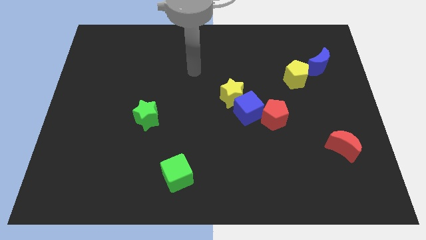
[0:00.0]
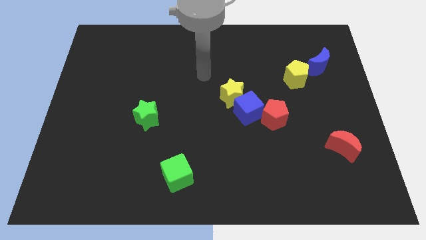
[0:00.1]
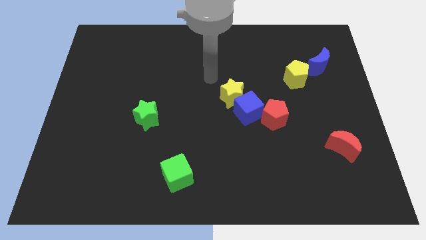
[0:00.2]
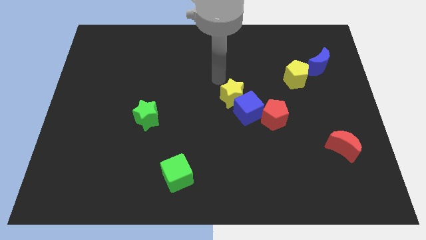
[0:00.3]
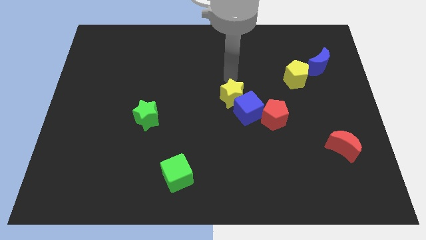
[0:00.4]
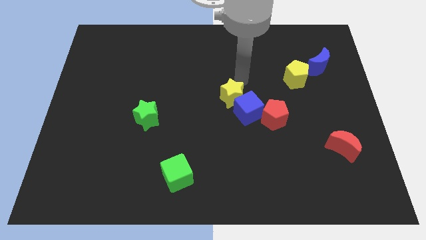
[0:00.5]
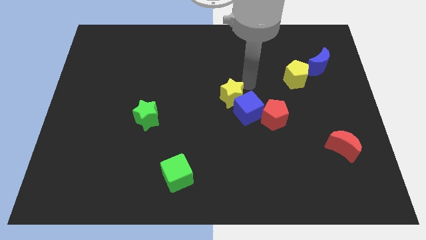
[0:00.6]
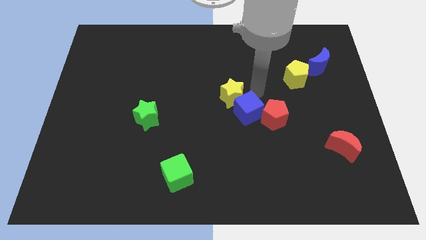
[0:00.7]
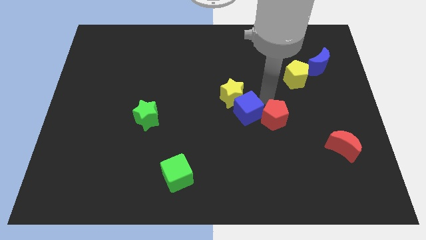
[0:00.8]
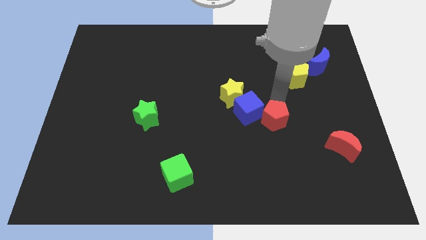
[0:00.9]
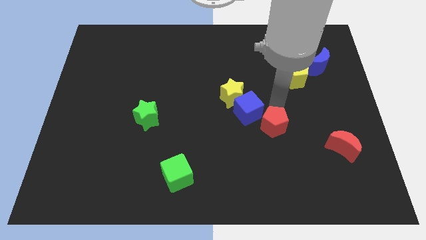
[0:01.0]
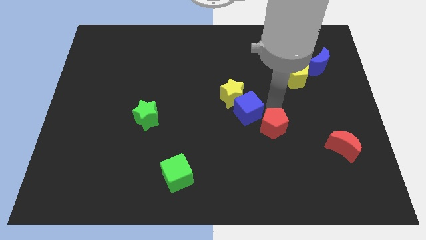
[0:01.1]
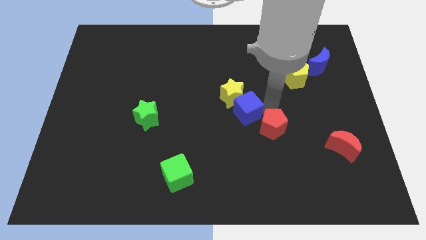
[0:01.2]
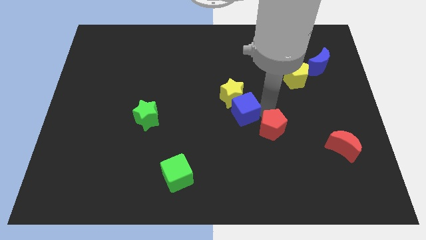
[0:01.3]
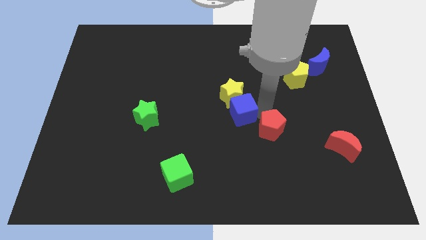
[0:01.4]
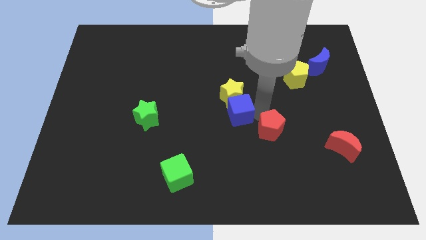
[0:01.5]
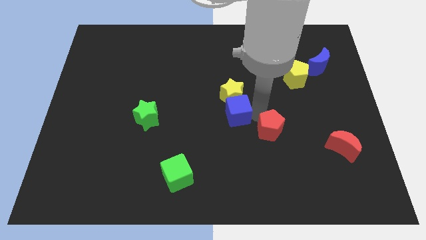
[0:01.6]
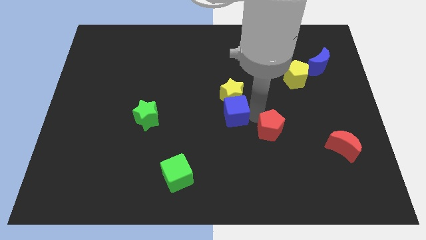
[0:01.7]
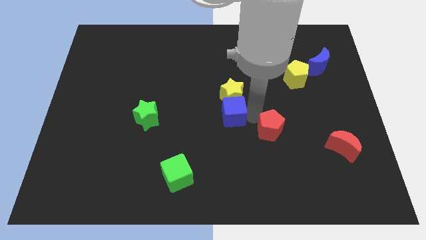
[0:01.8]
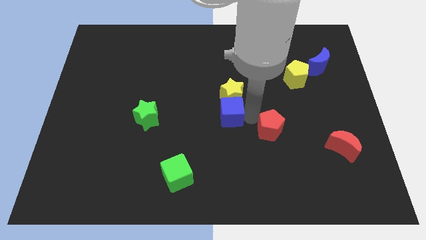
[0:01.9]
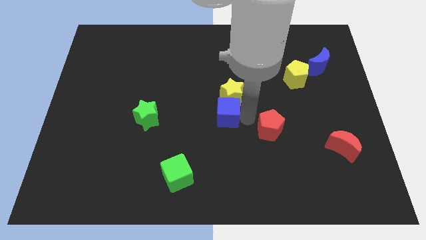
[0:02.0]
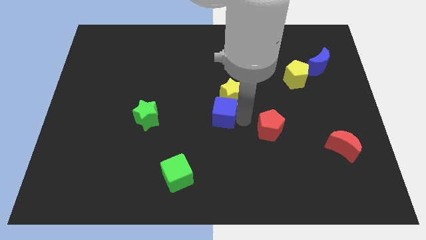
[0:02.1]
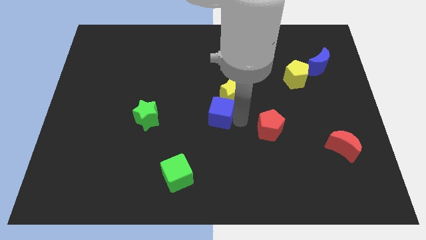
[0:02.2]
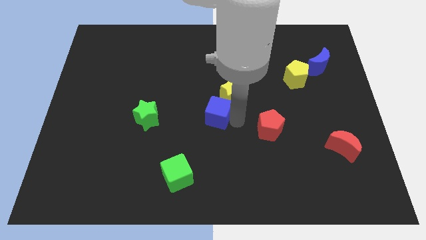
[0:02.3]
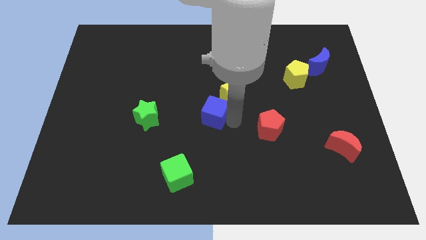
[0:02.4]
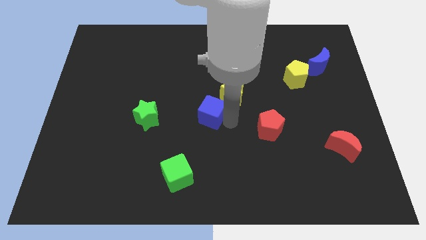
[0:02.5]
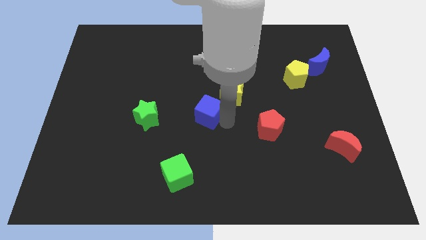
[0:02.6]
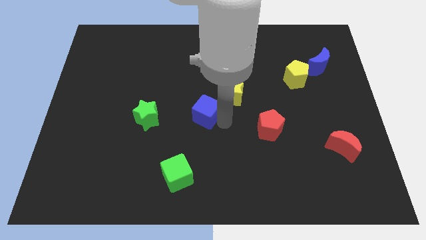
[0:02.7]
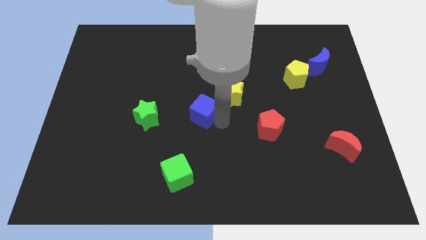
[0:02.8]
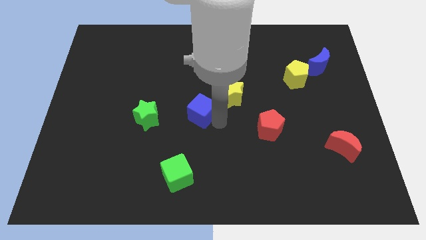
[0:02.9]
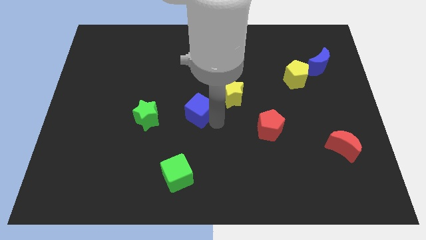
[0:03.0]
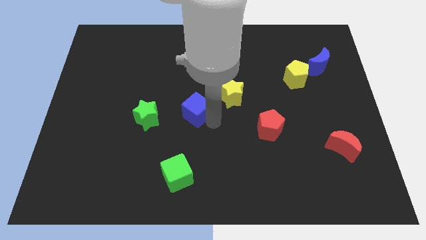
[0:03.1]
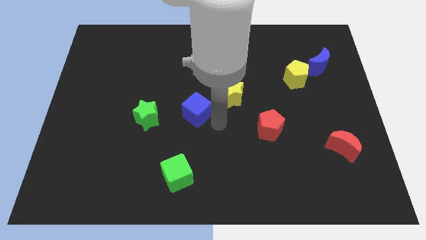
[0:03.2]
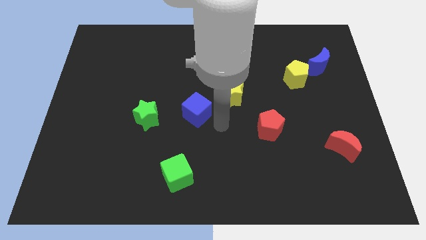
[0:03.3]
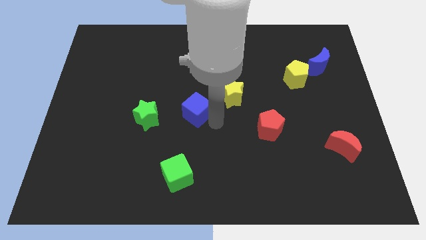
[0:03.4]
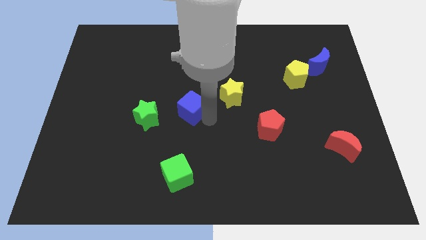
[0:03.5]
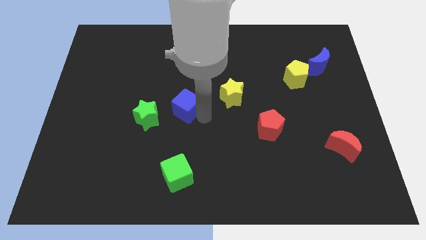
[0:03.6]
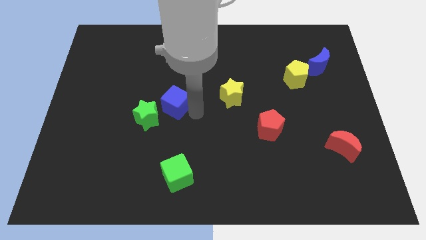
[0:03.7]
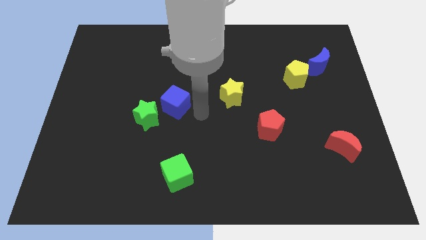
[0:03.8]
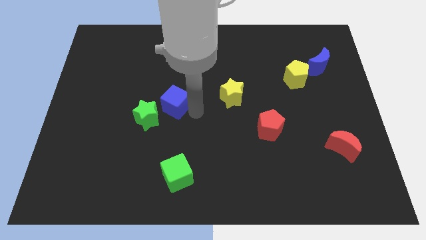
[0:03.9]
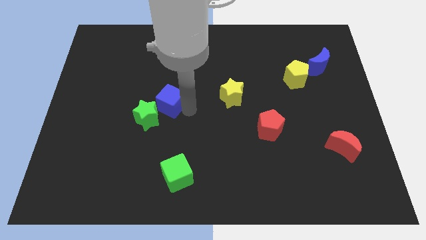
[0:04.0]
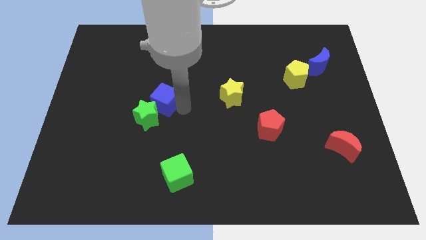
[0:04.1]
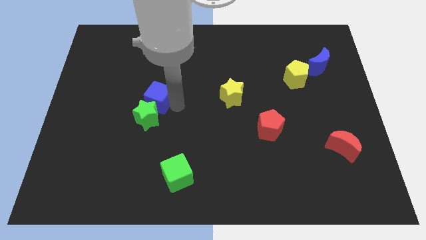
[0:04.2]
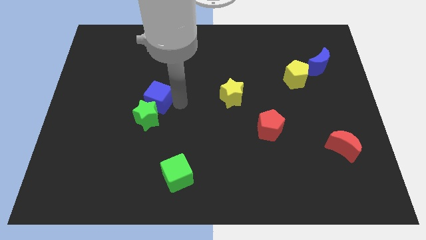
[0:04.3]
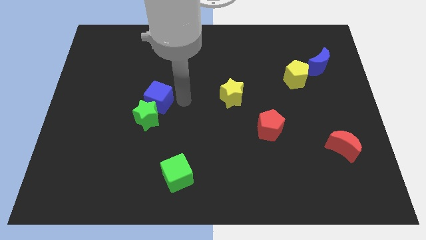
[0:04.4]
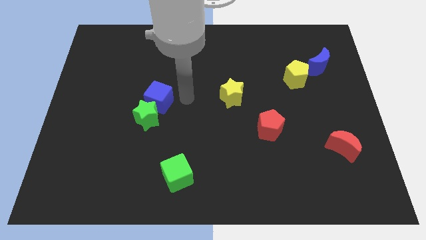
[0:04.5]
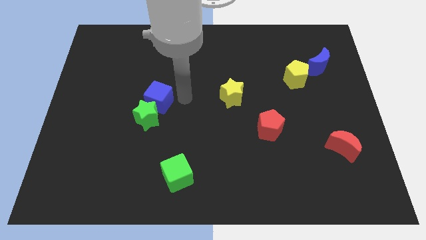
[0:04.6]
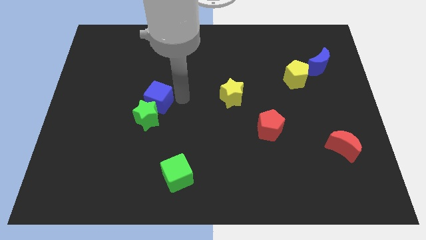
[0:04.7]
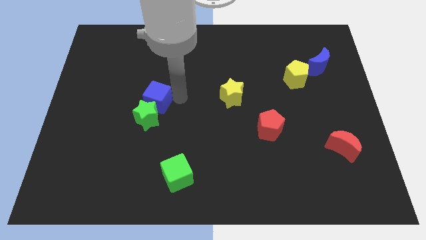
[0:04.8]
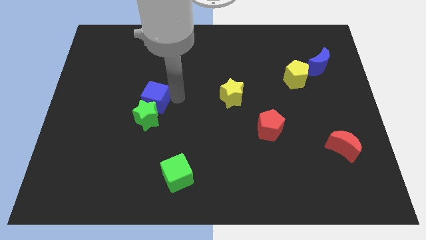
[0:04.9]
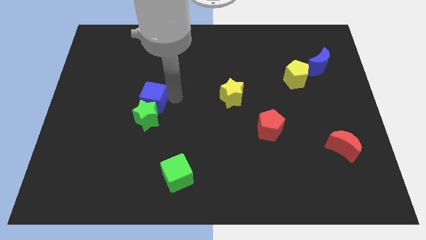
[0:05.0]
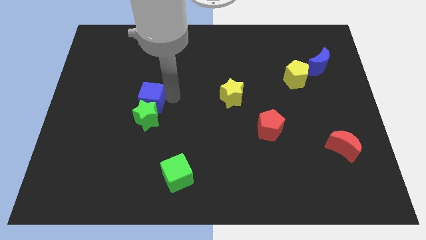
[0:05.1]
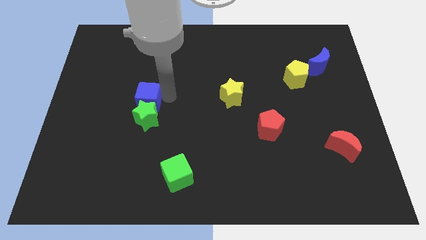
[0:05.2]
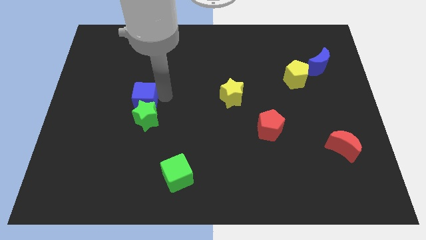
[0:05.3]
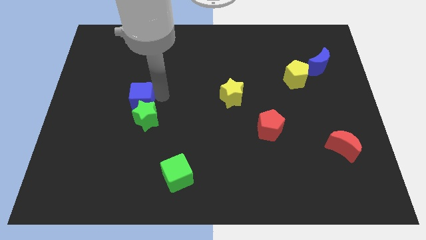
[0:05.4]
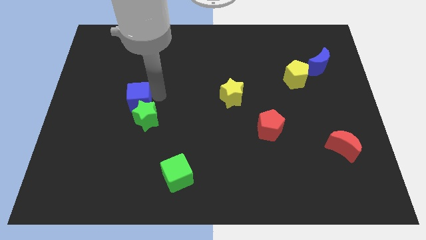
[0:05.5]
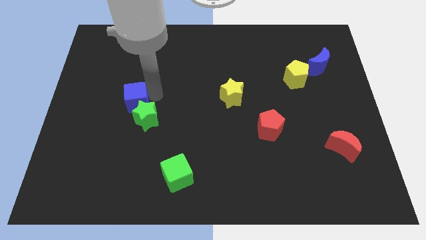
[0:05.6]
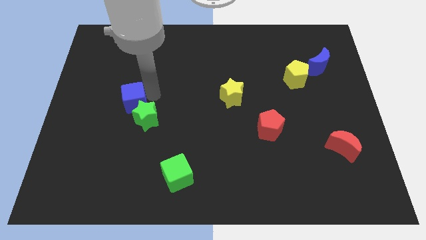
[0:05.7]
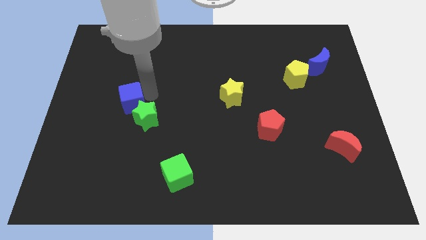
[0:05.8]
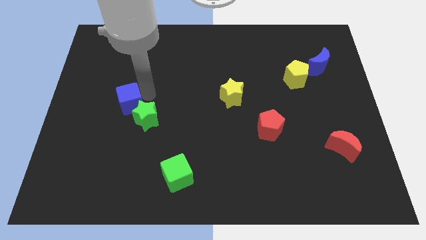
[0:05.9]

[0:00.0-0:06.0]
put the blue cube to the left of the green star

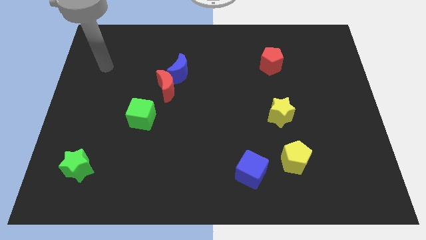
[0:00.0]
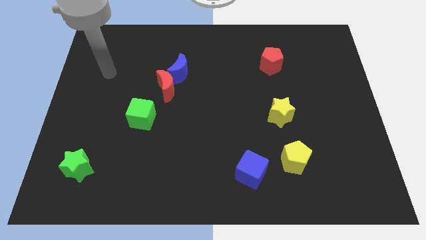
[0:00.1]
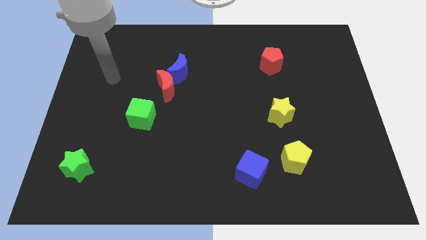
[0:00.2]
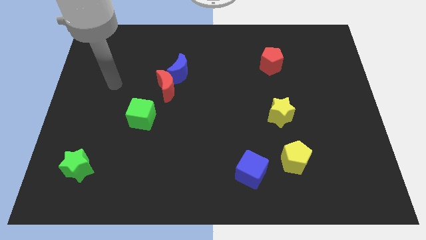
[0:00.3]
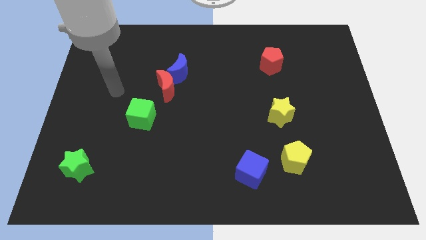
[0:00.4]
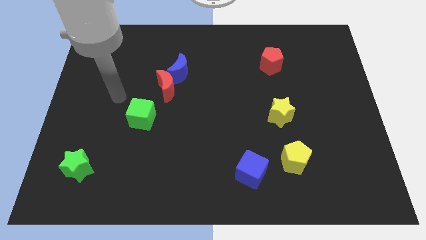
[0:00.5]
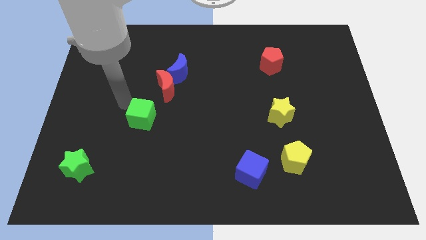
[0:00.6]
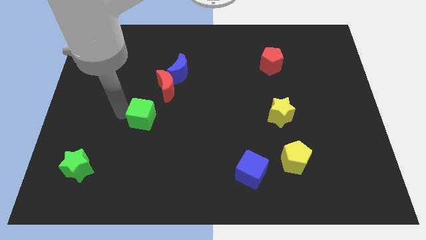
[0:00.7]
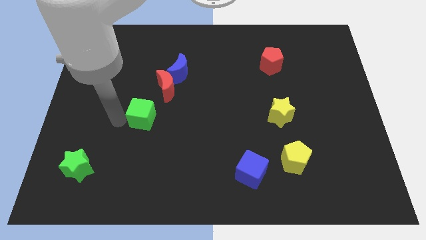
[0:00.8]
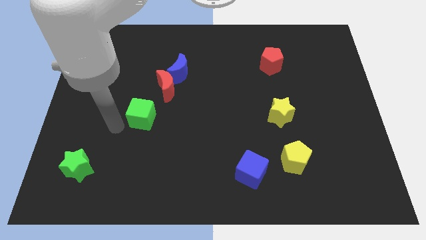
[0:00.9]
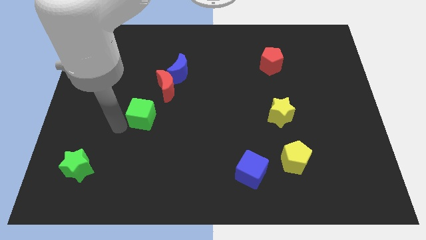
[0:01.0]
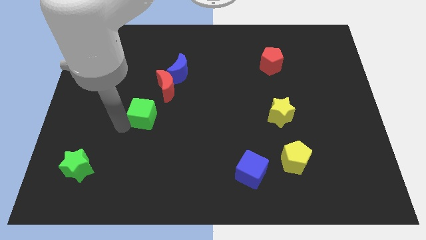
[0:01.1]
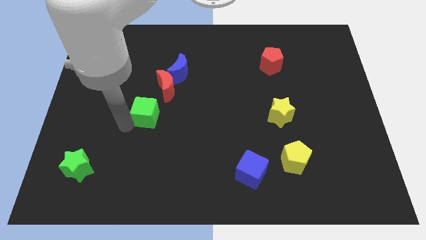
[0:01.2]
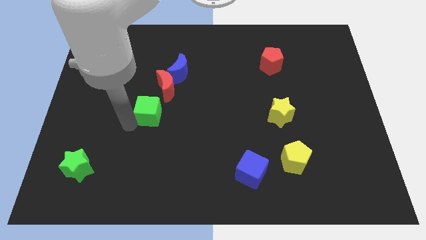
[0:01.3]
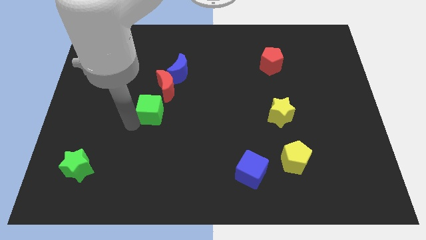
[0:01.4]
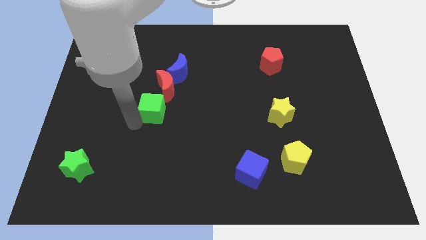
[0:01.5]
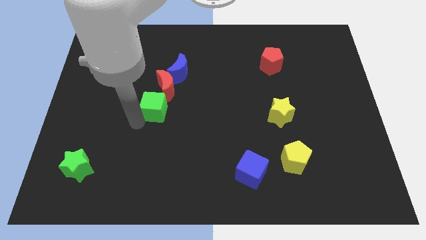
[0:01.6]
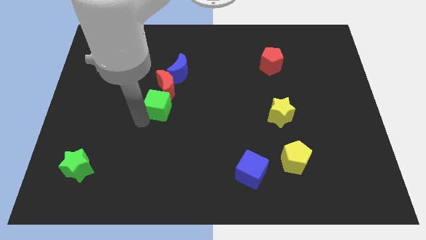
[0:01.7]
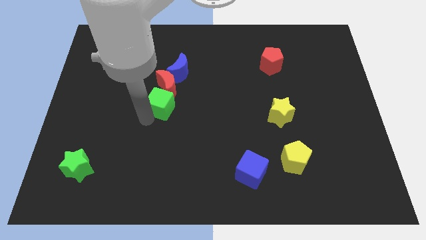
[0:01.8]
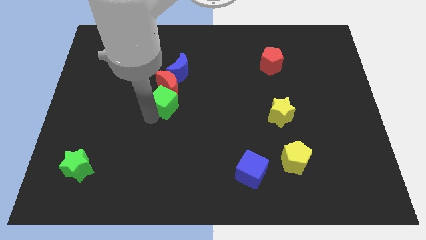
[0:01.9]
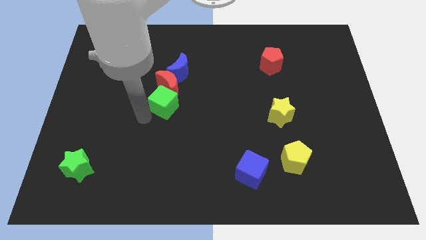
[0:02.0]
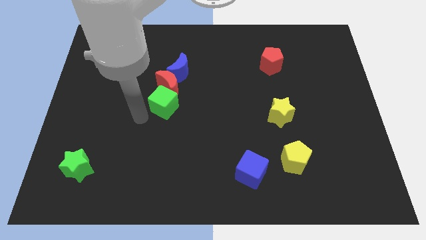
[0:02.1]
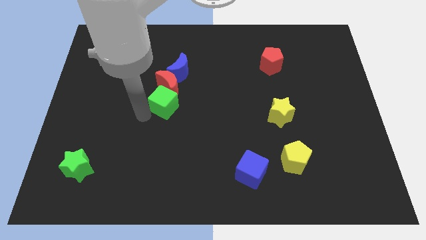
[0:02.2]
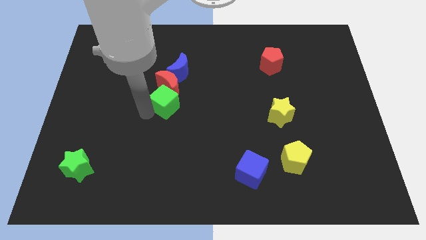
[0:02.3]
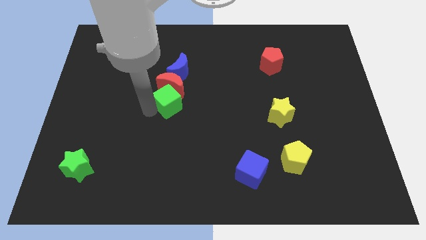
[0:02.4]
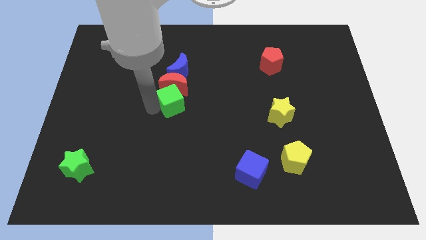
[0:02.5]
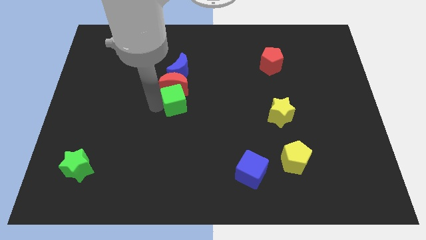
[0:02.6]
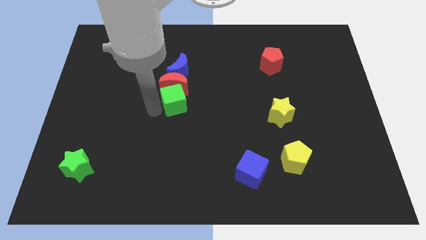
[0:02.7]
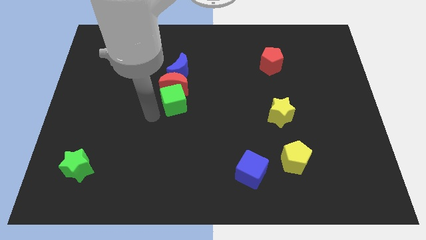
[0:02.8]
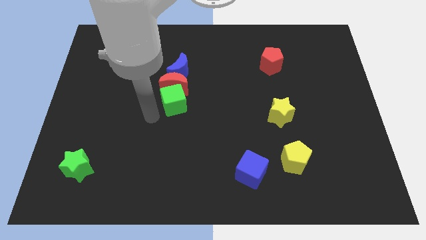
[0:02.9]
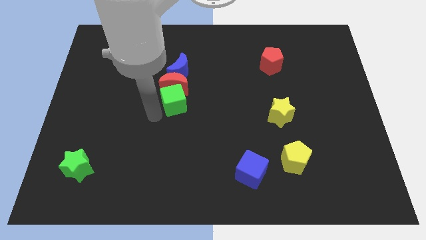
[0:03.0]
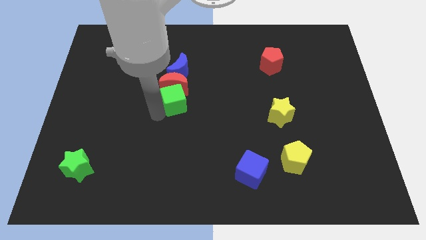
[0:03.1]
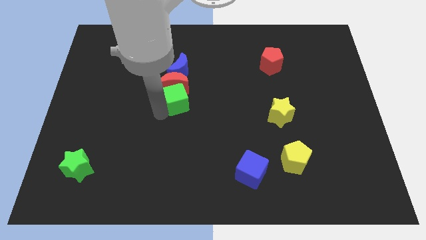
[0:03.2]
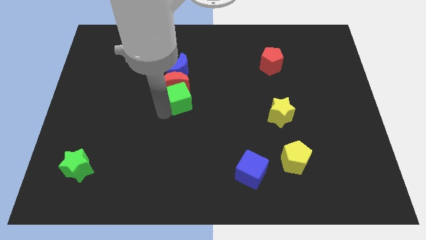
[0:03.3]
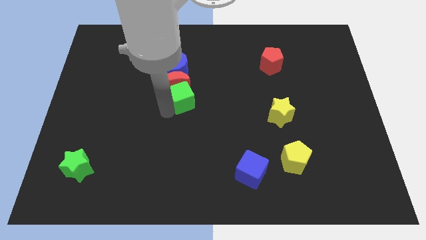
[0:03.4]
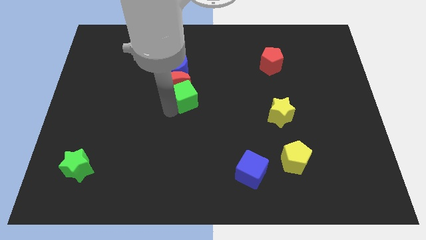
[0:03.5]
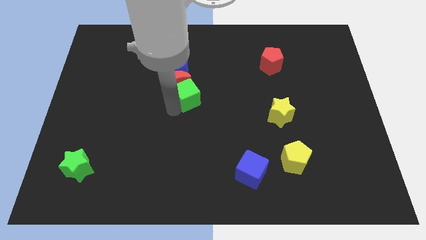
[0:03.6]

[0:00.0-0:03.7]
put the green cube to the bottom right side of the blue moon
